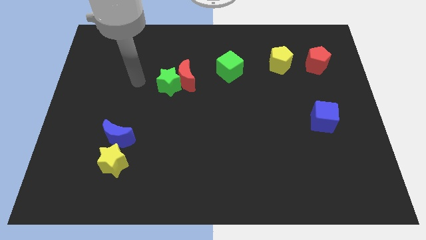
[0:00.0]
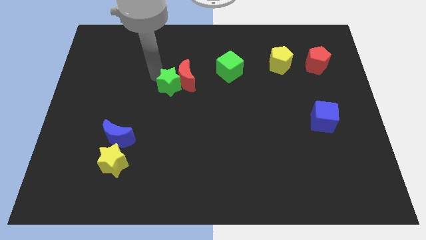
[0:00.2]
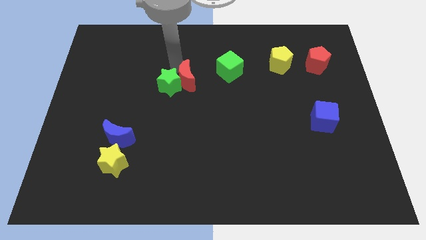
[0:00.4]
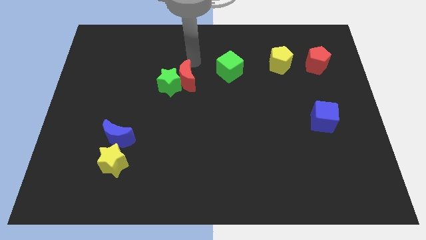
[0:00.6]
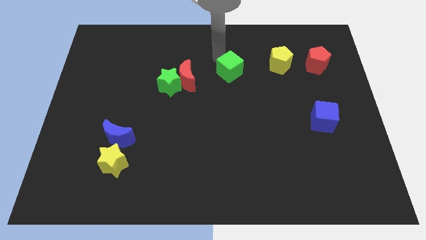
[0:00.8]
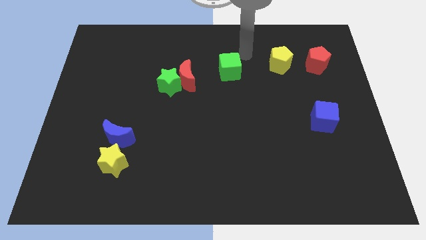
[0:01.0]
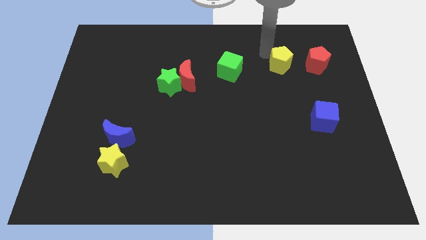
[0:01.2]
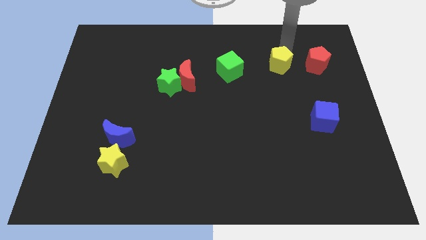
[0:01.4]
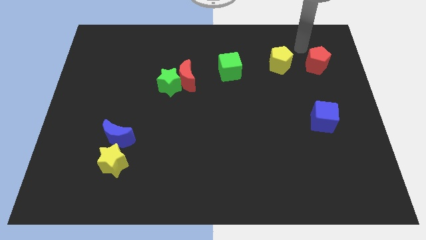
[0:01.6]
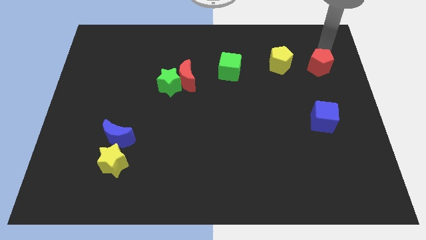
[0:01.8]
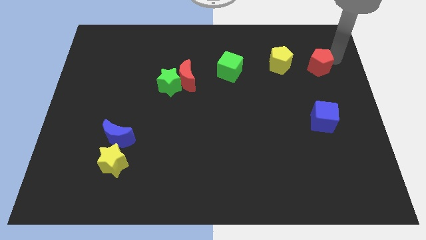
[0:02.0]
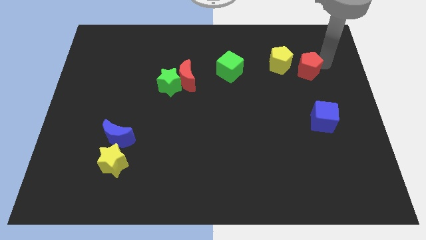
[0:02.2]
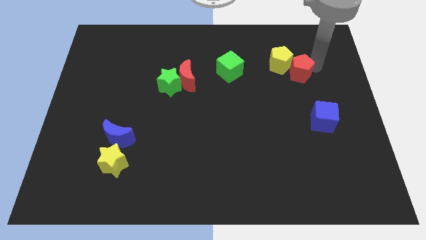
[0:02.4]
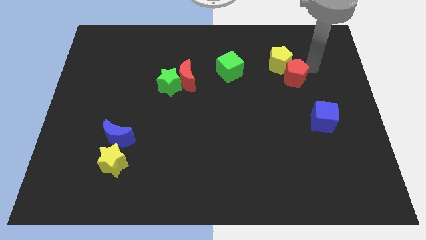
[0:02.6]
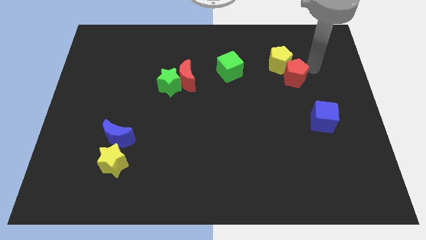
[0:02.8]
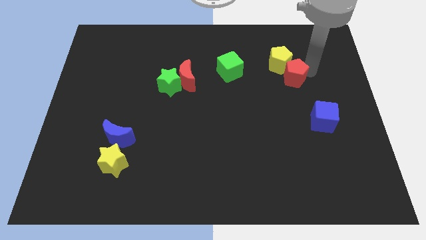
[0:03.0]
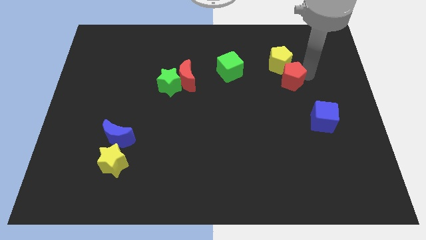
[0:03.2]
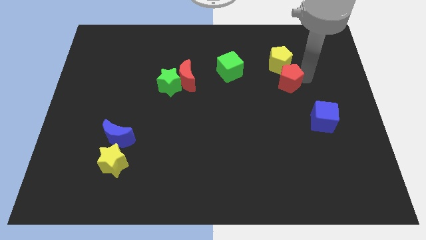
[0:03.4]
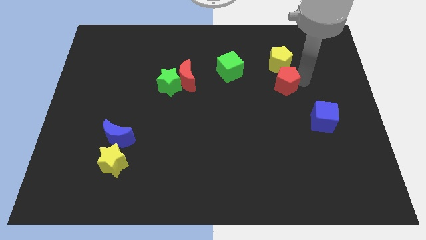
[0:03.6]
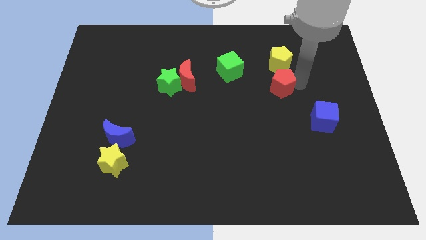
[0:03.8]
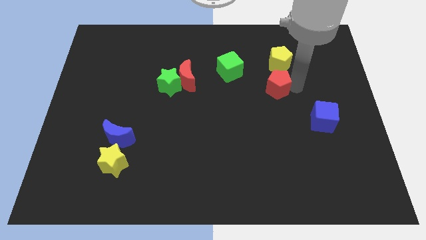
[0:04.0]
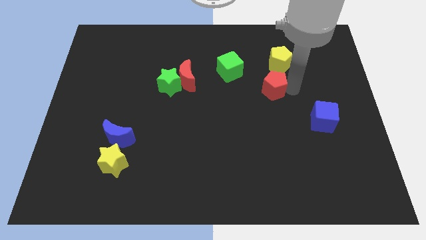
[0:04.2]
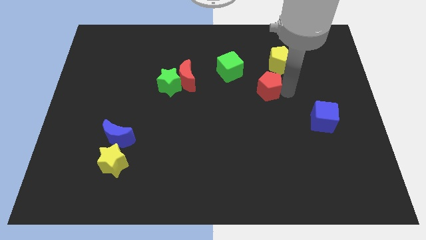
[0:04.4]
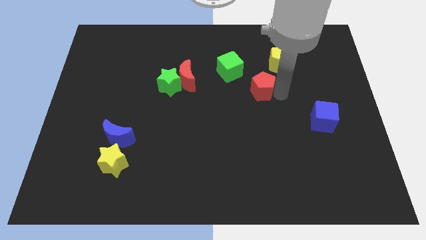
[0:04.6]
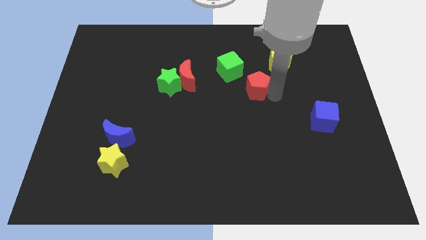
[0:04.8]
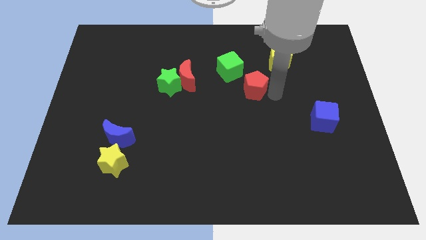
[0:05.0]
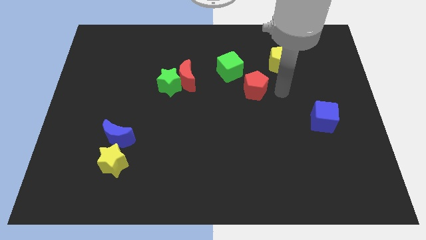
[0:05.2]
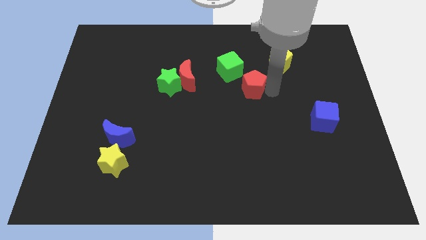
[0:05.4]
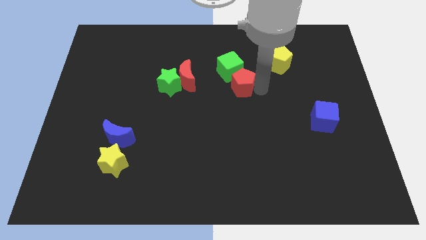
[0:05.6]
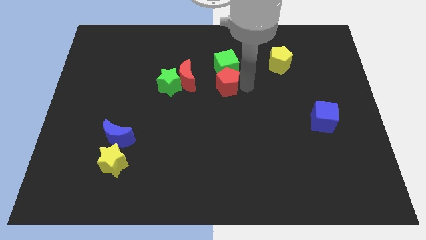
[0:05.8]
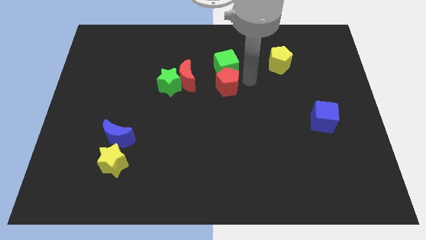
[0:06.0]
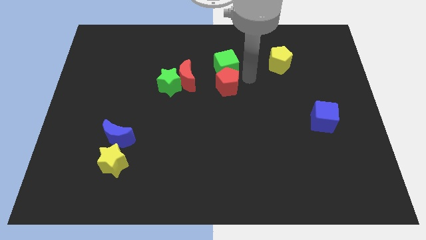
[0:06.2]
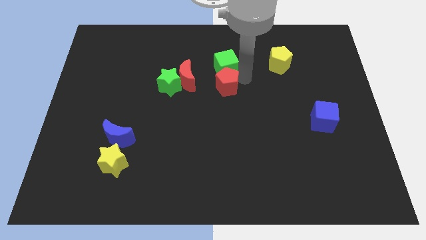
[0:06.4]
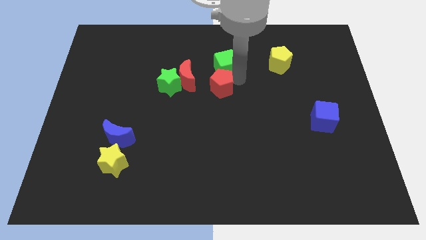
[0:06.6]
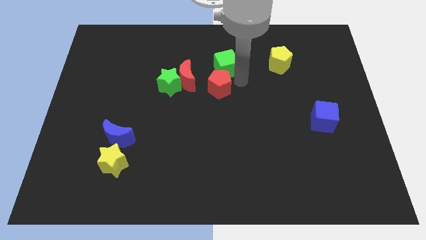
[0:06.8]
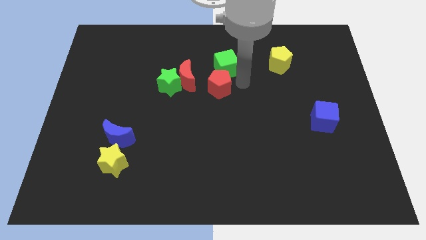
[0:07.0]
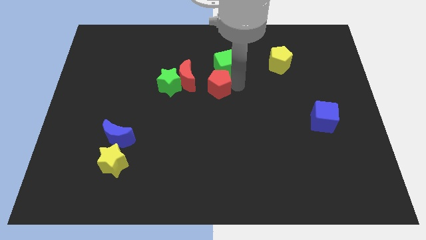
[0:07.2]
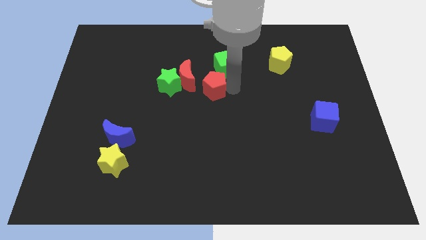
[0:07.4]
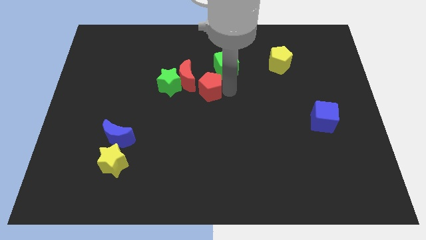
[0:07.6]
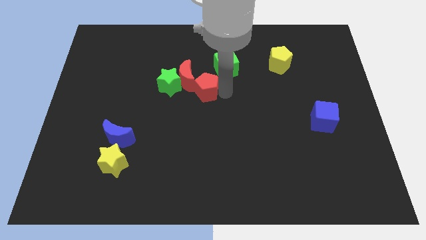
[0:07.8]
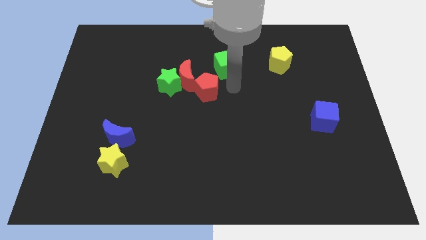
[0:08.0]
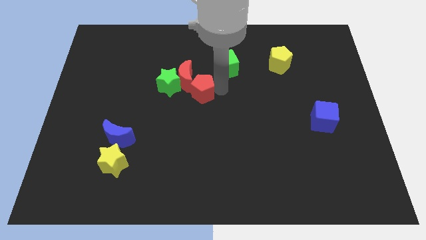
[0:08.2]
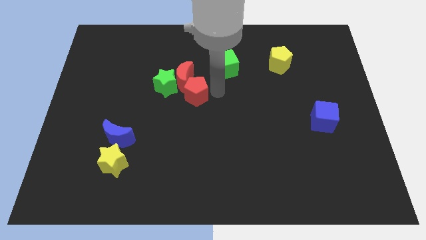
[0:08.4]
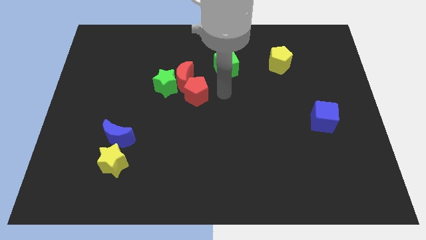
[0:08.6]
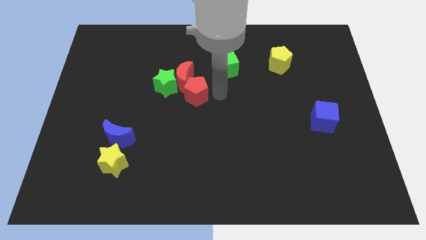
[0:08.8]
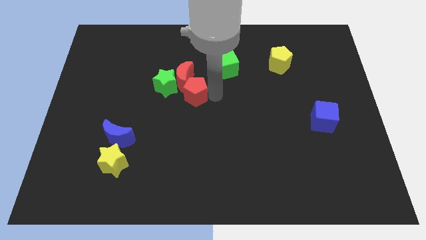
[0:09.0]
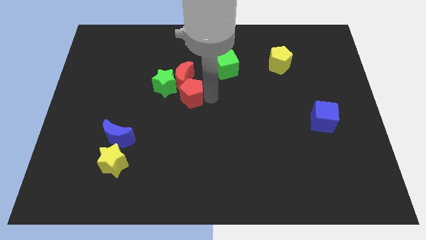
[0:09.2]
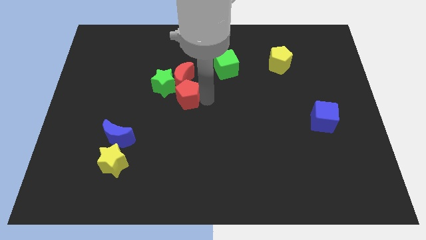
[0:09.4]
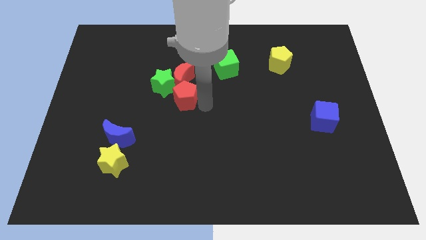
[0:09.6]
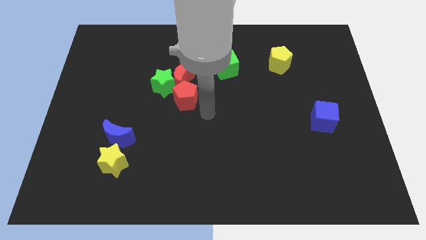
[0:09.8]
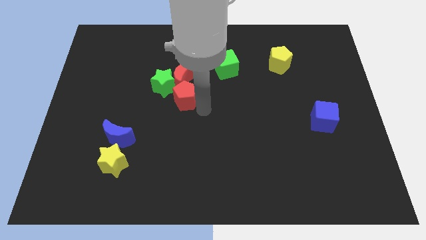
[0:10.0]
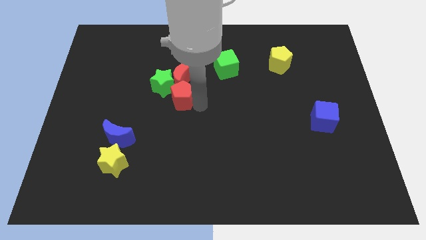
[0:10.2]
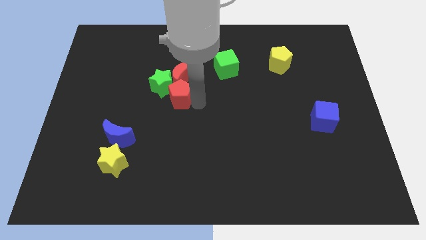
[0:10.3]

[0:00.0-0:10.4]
move the red pentagon to the green star

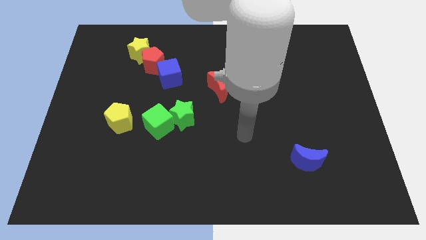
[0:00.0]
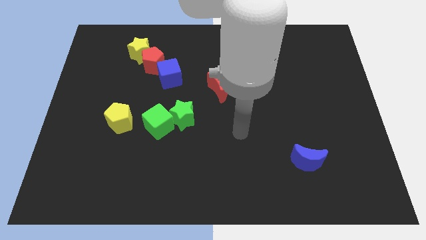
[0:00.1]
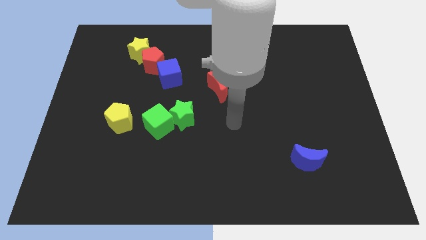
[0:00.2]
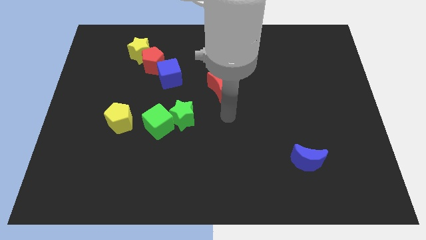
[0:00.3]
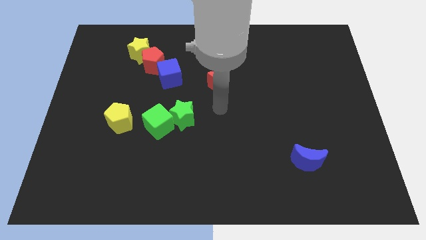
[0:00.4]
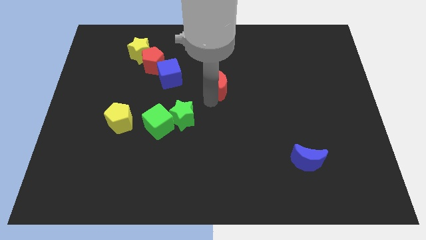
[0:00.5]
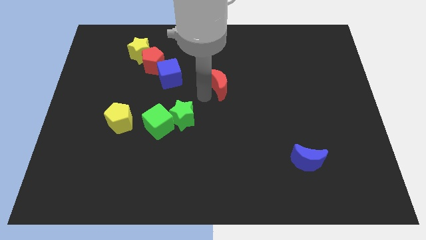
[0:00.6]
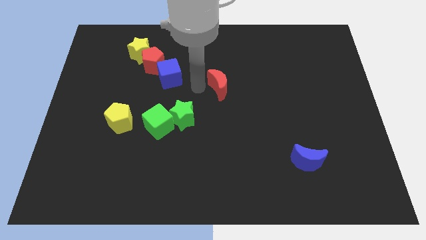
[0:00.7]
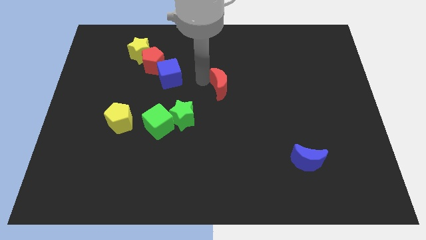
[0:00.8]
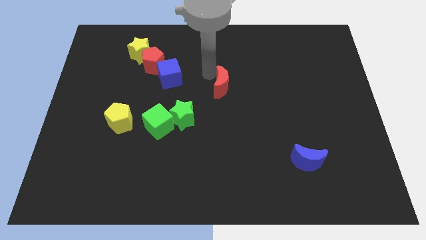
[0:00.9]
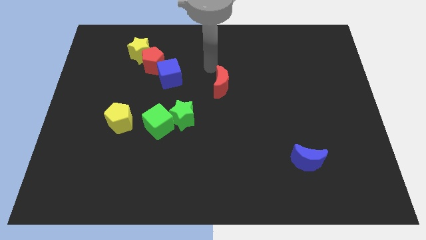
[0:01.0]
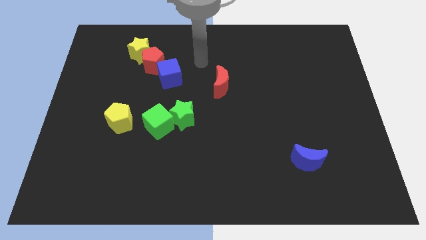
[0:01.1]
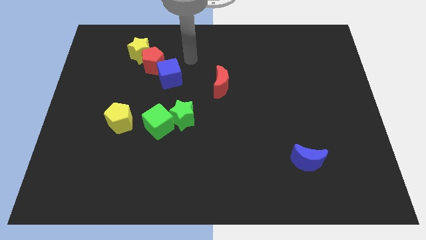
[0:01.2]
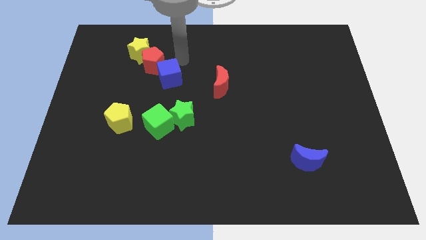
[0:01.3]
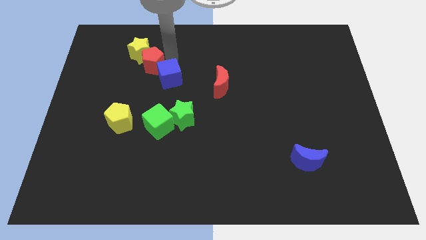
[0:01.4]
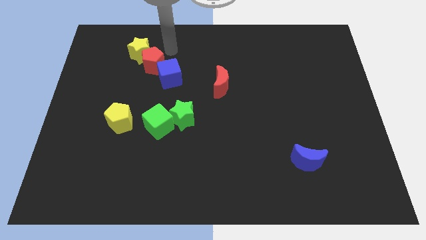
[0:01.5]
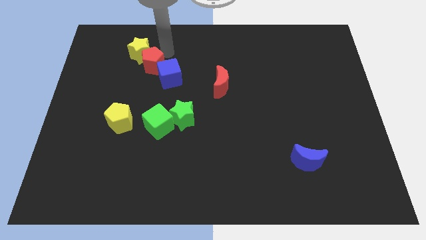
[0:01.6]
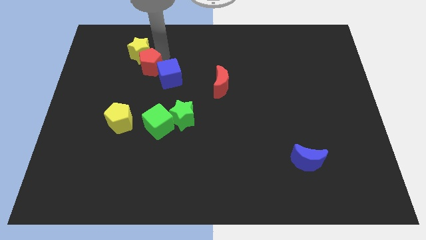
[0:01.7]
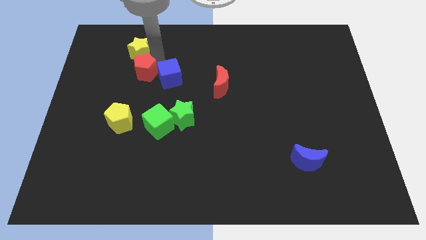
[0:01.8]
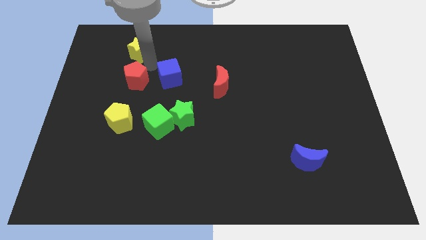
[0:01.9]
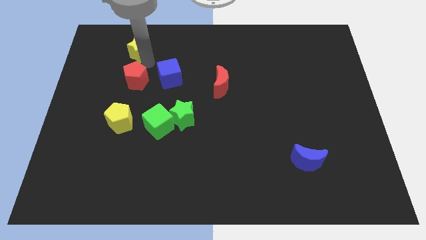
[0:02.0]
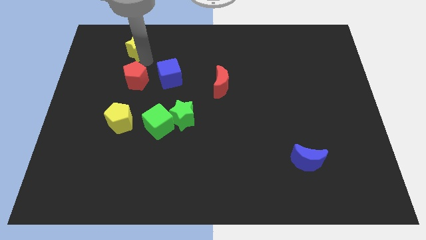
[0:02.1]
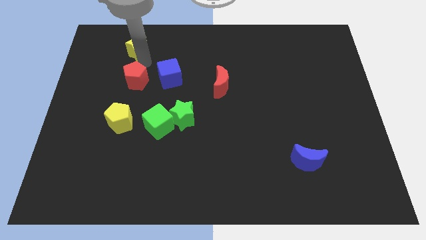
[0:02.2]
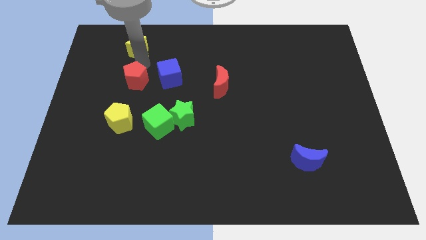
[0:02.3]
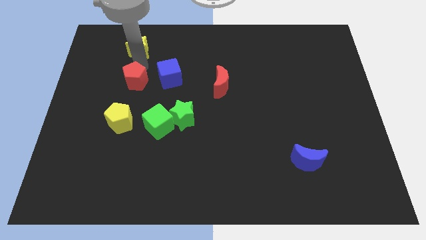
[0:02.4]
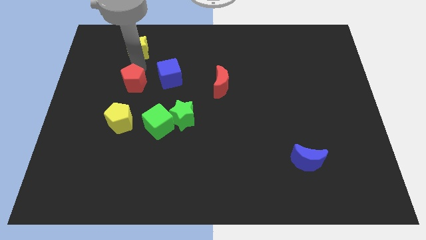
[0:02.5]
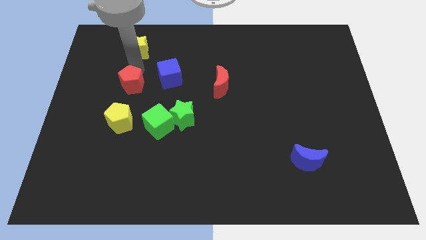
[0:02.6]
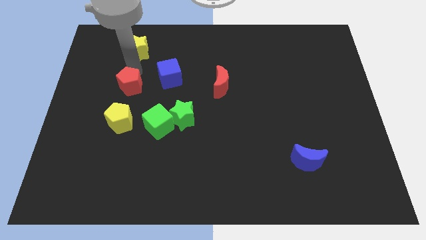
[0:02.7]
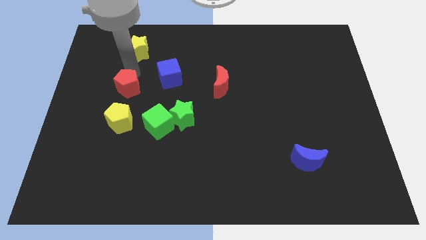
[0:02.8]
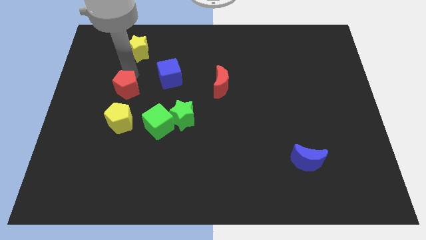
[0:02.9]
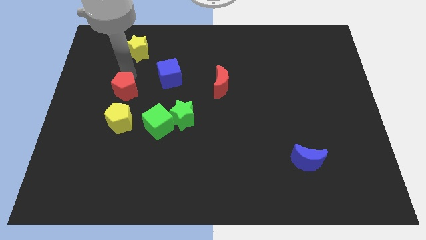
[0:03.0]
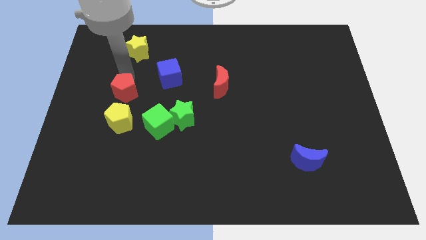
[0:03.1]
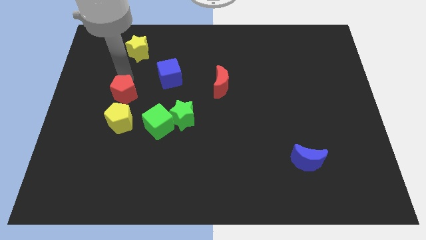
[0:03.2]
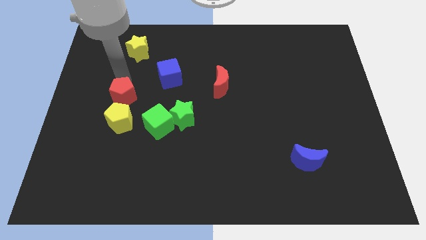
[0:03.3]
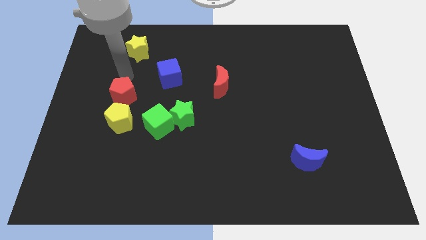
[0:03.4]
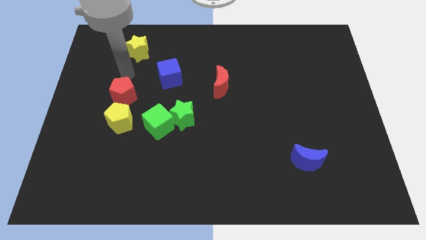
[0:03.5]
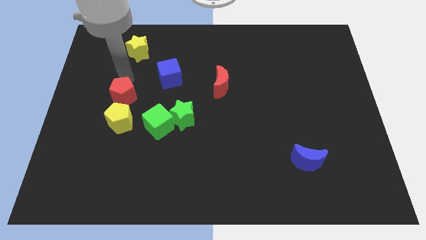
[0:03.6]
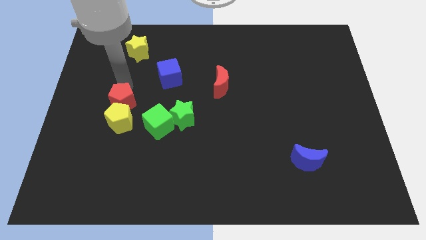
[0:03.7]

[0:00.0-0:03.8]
push the red pentagon to the yellow pentagon
